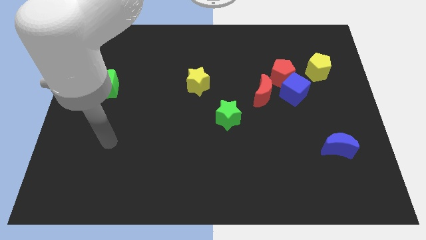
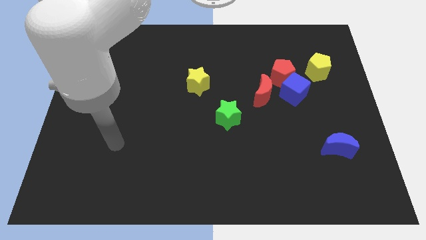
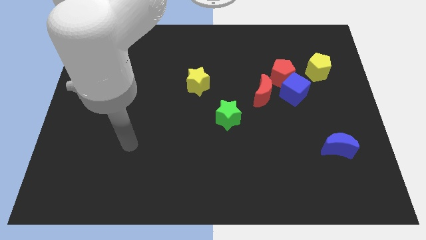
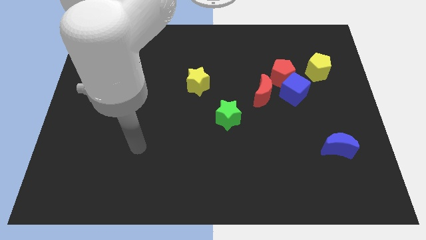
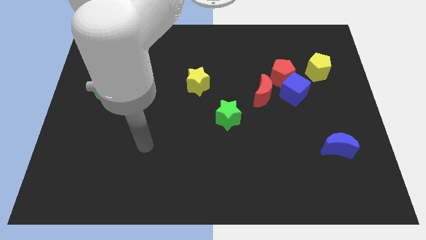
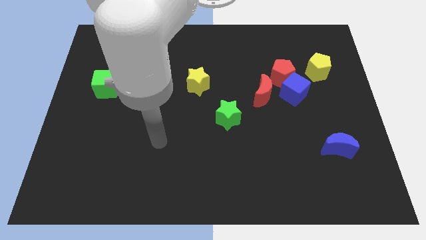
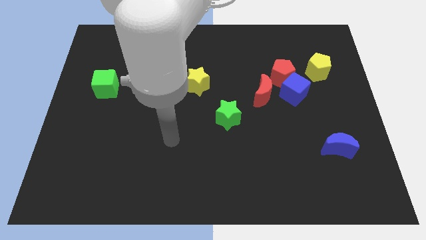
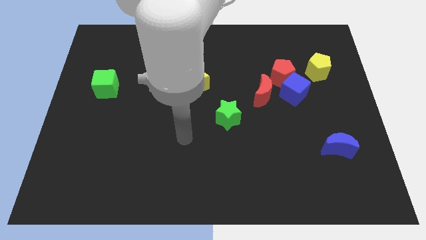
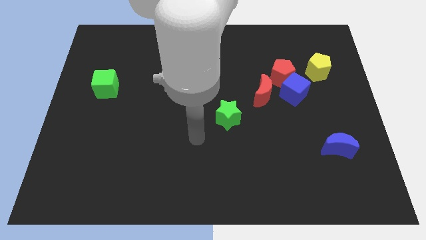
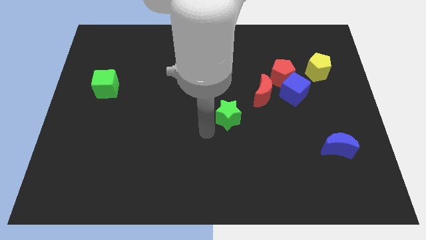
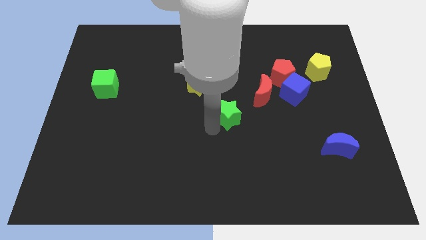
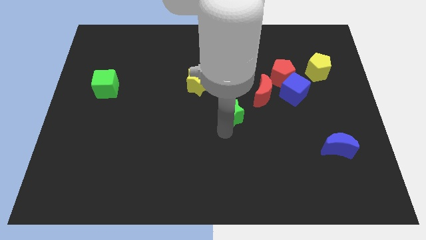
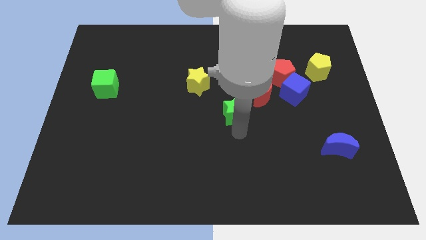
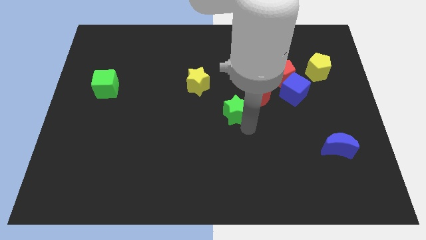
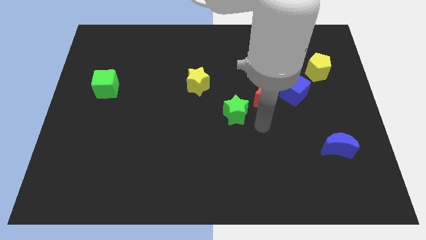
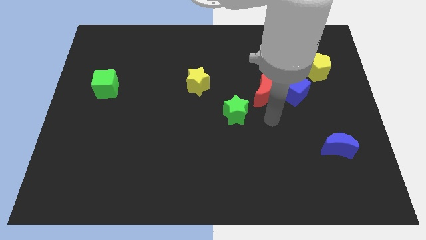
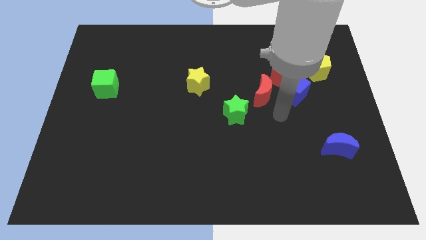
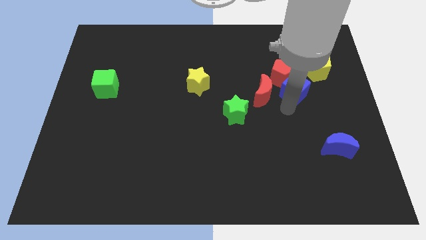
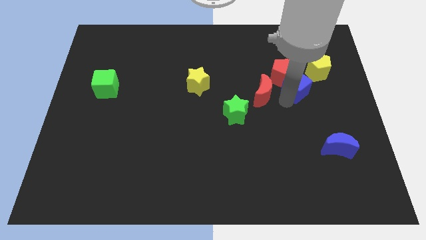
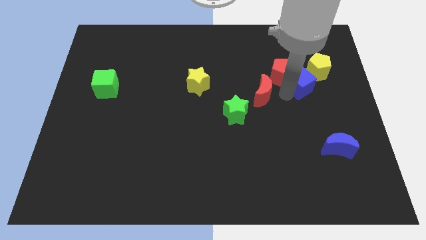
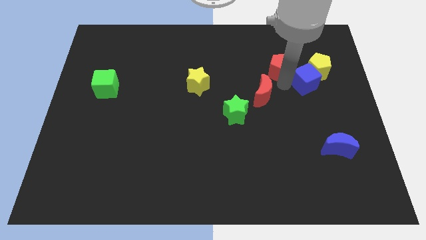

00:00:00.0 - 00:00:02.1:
move the red moon away from the blue cube and red pentagon

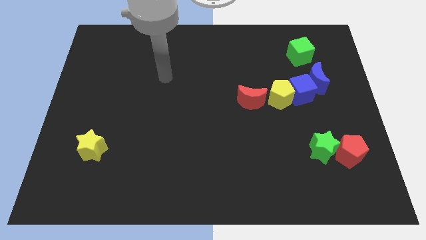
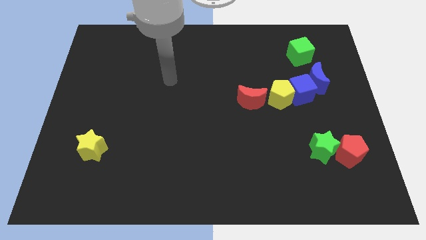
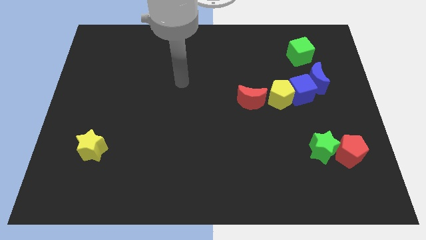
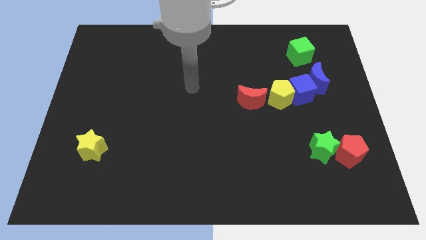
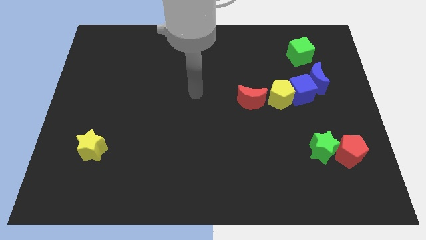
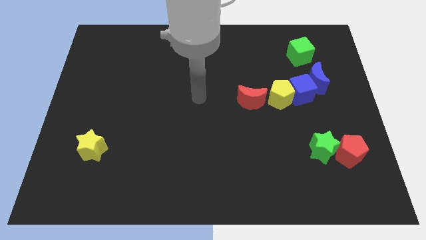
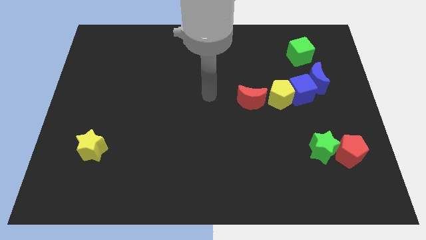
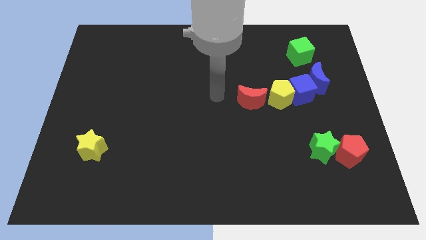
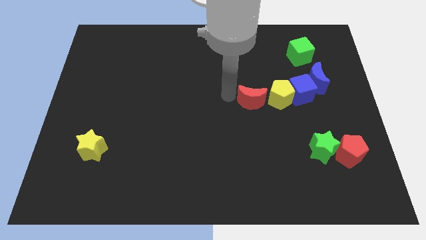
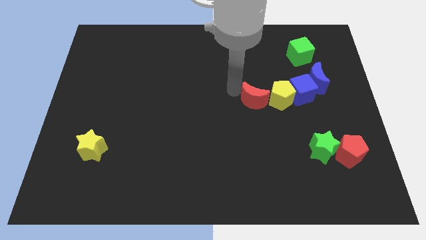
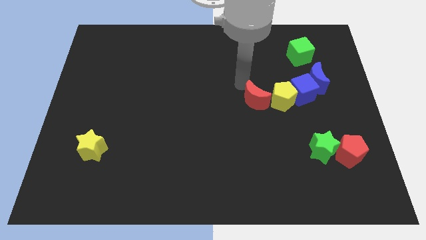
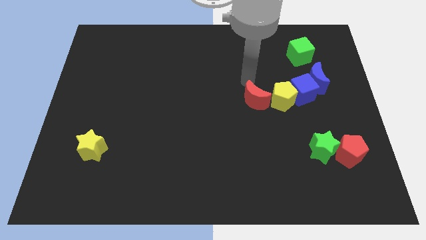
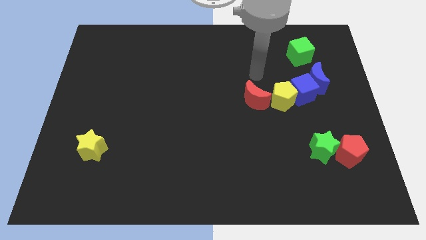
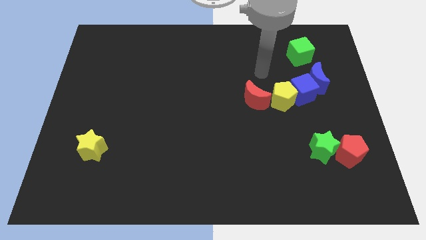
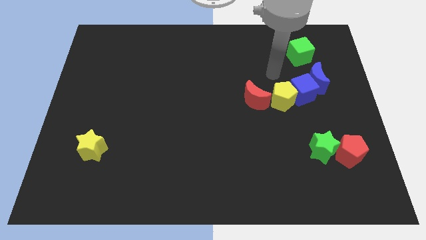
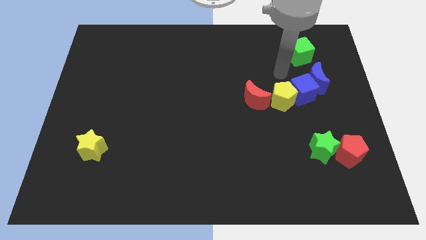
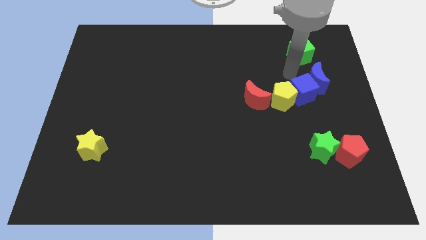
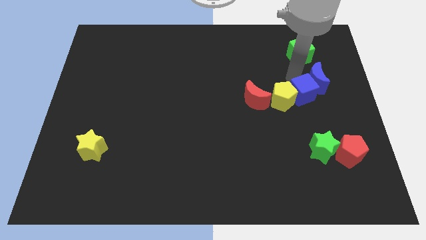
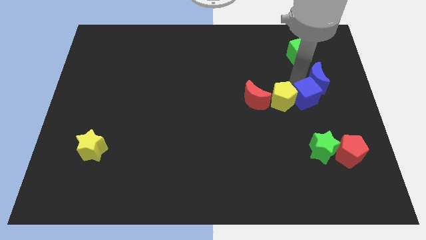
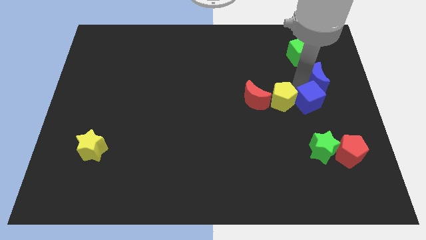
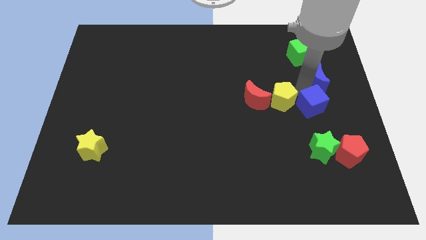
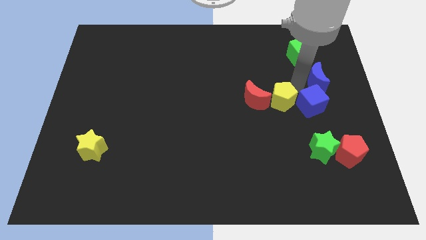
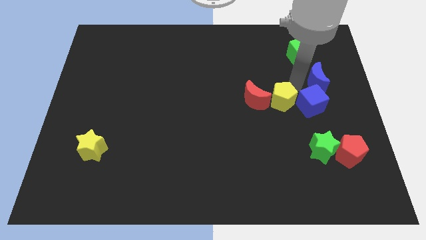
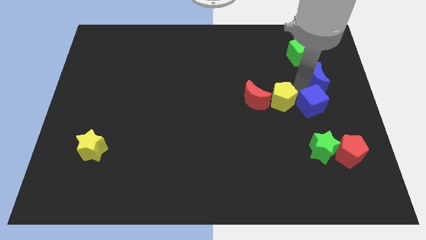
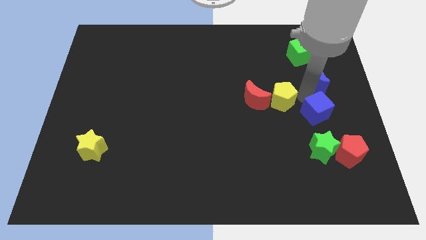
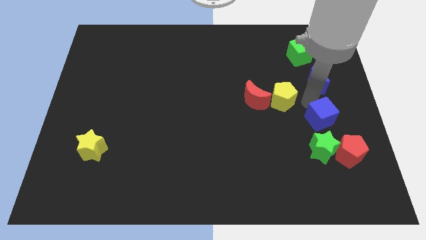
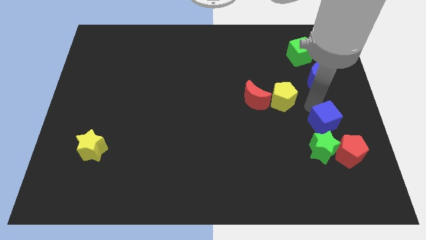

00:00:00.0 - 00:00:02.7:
separate the blue cube from the yellow pentagon and blue moon

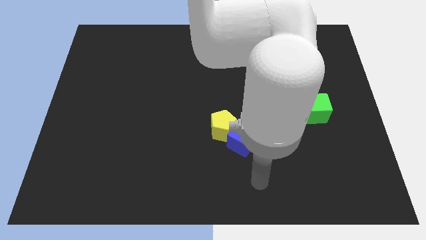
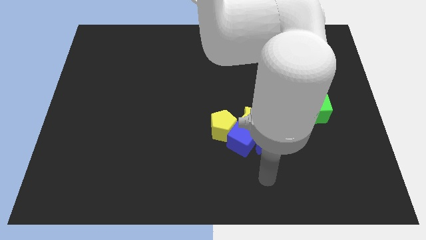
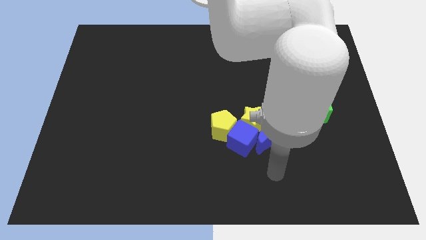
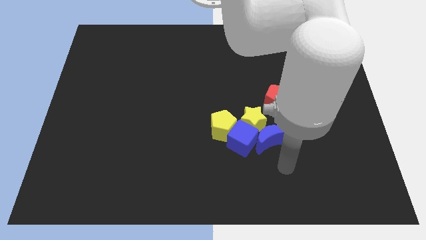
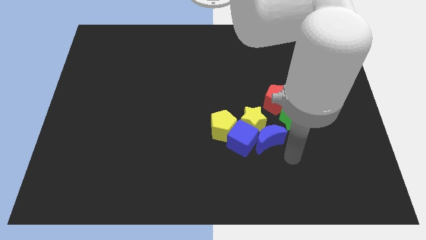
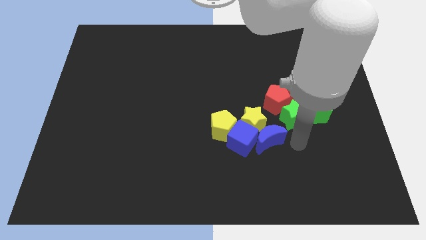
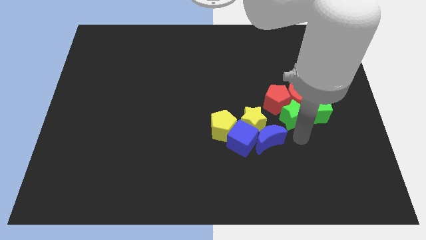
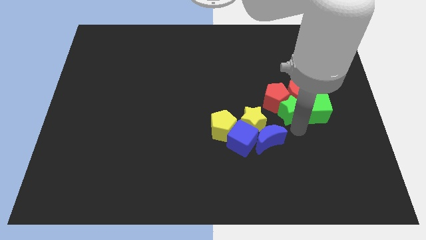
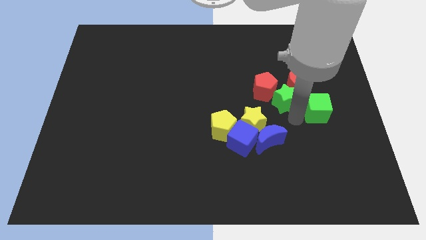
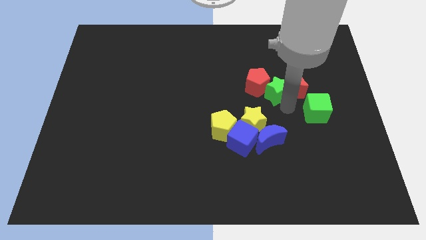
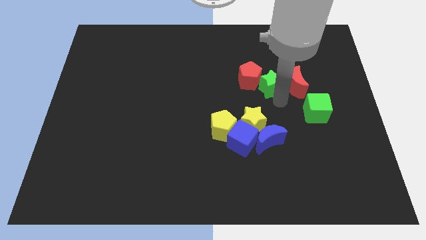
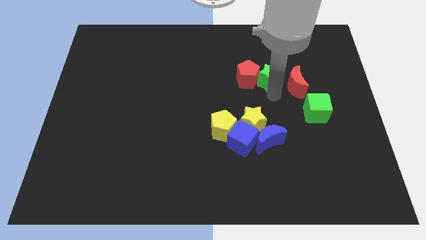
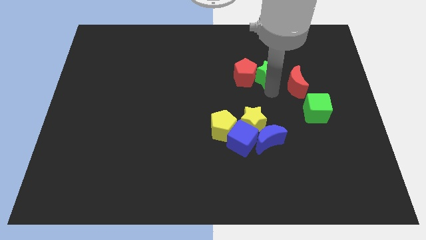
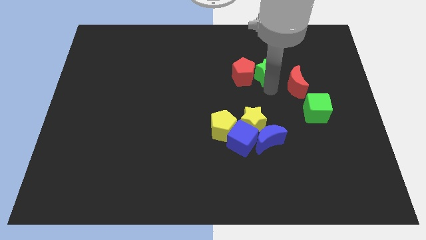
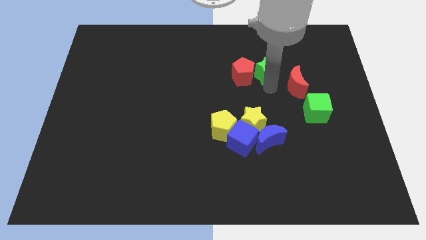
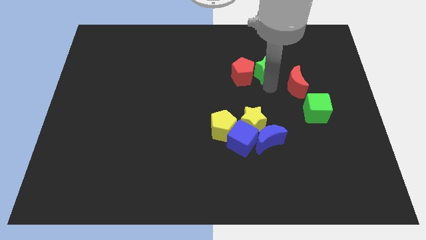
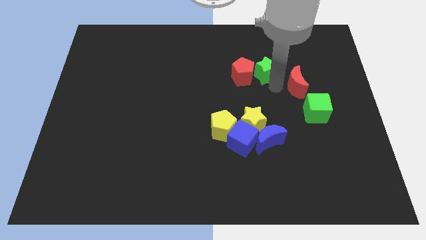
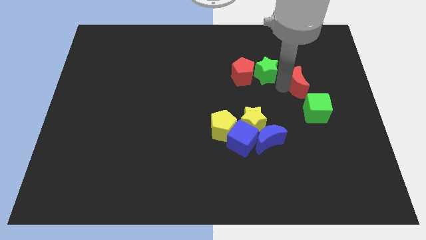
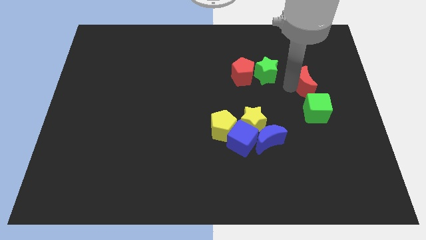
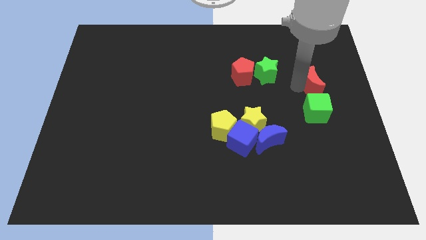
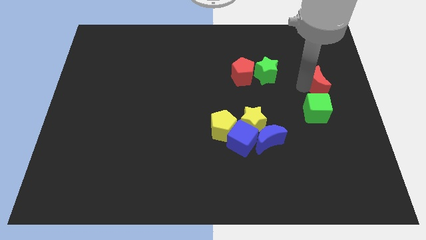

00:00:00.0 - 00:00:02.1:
separate the red moon from the red pentagon, green star, and green cube

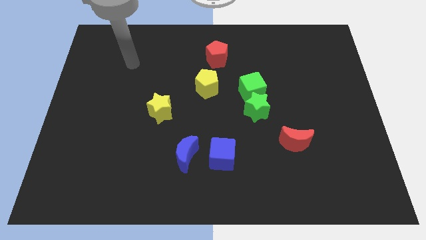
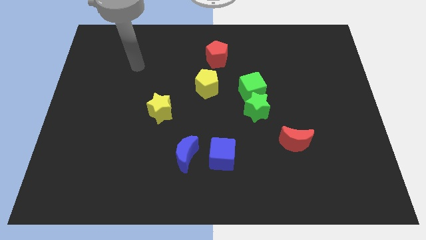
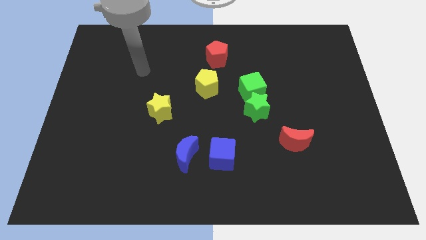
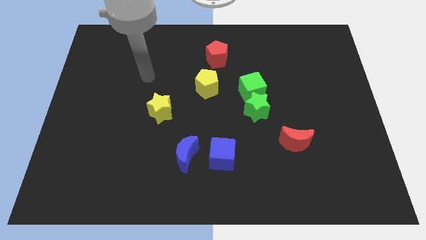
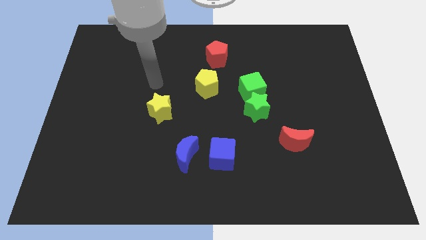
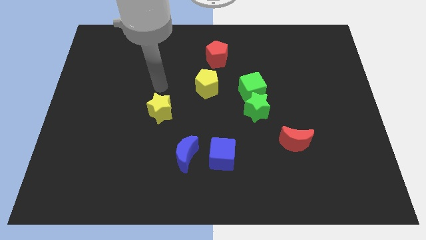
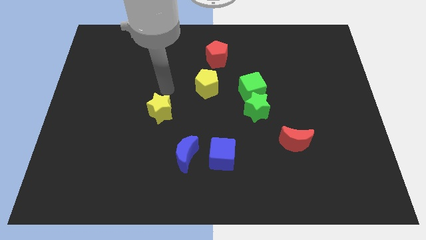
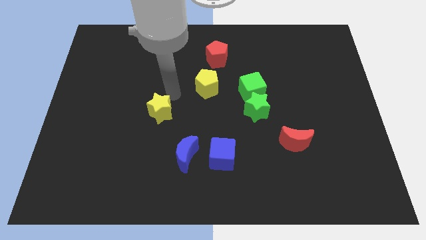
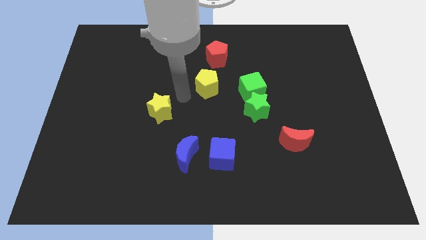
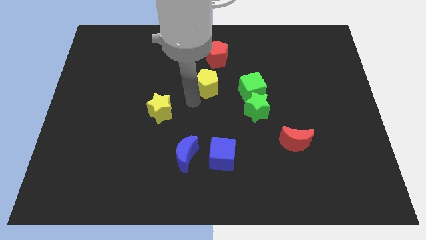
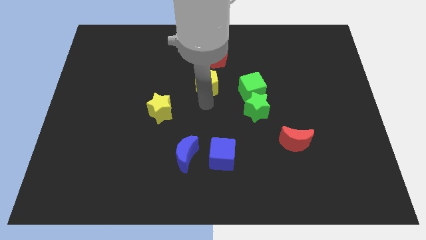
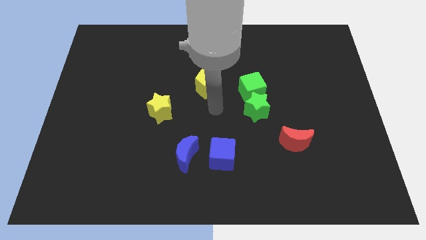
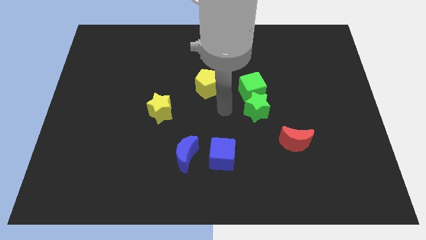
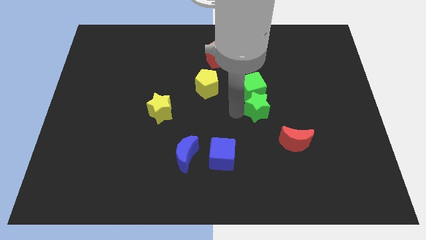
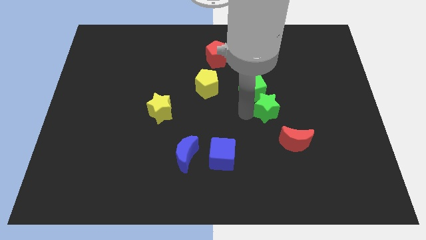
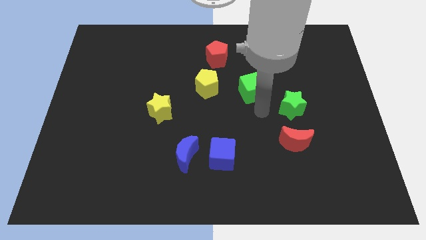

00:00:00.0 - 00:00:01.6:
move the green cube away from the green star

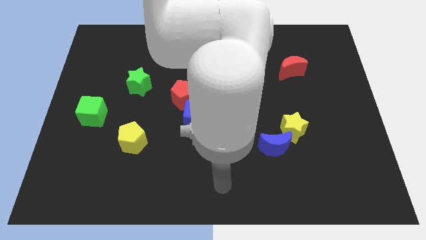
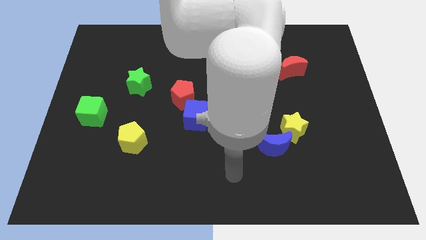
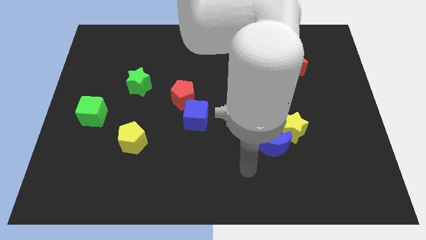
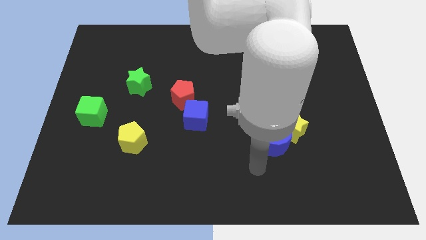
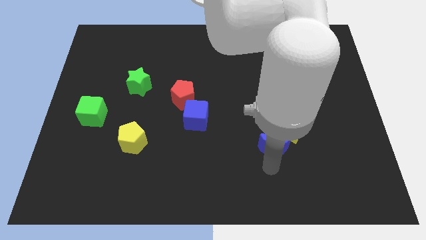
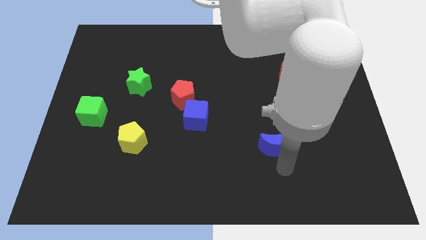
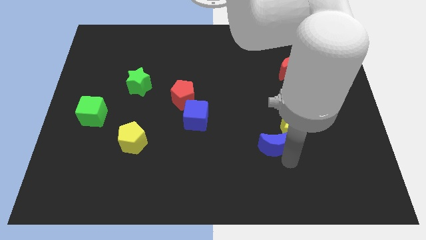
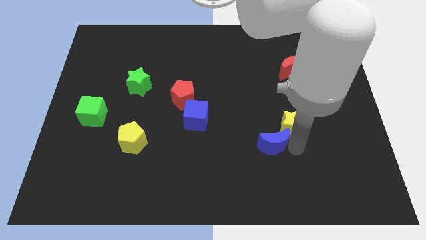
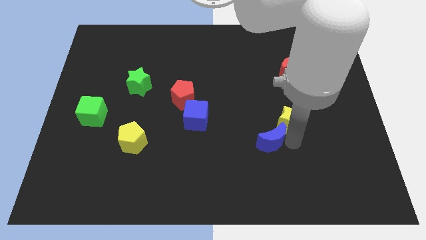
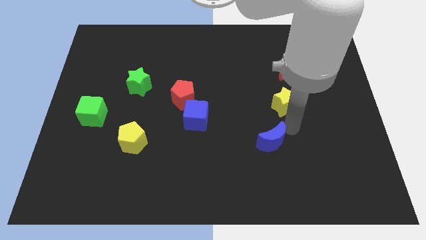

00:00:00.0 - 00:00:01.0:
pull the blue moon apart from the yellow star
